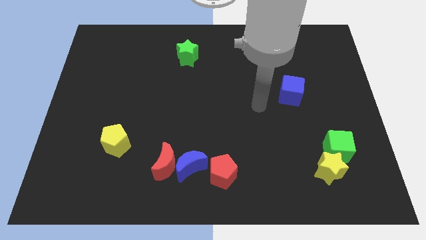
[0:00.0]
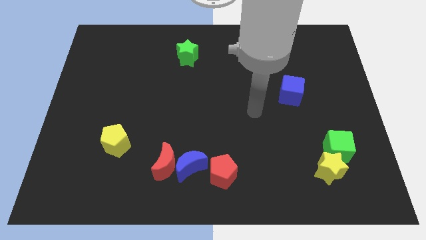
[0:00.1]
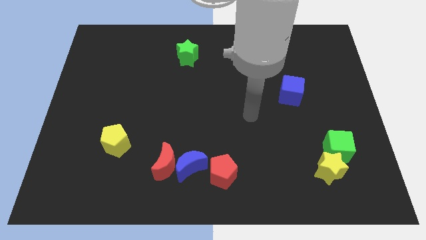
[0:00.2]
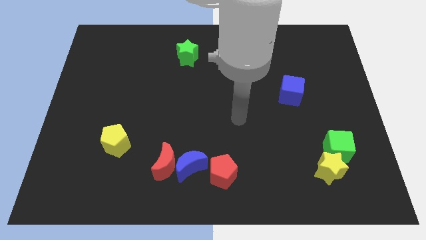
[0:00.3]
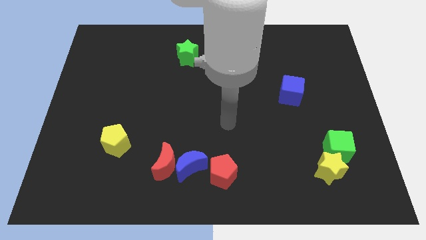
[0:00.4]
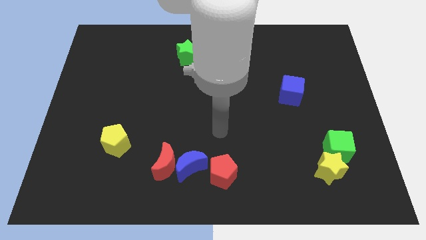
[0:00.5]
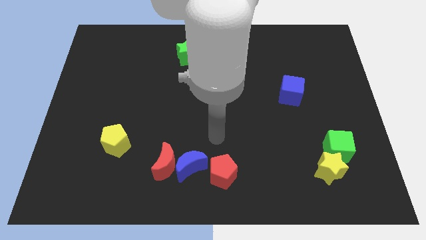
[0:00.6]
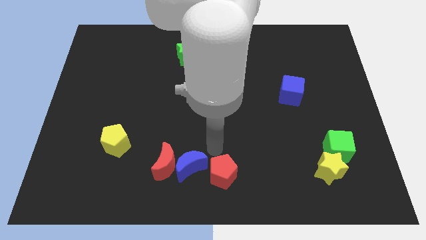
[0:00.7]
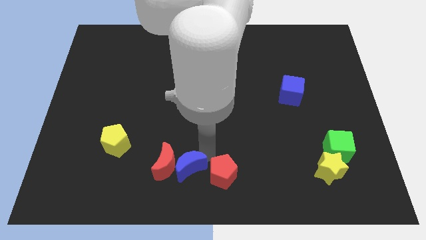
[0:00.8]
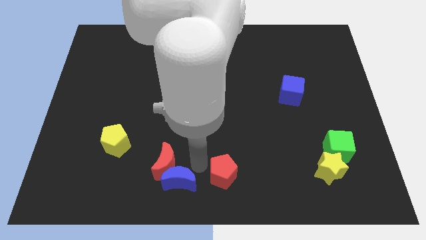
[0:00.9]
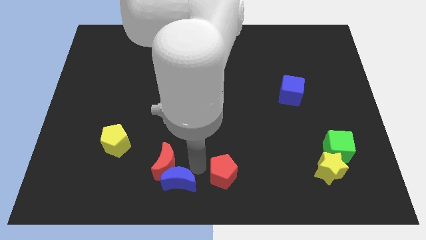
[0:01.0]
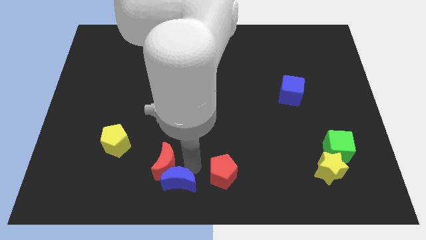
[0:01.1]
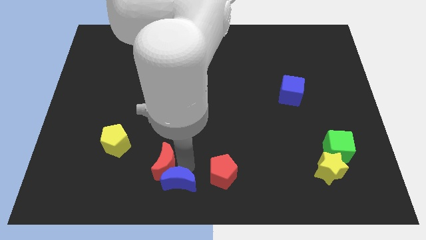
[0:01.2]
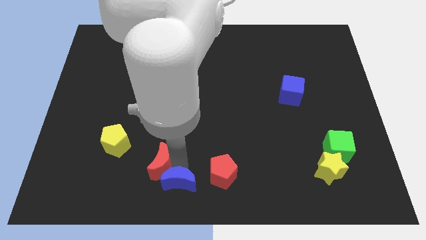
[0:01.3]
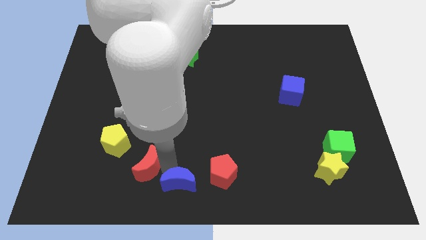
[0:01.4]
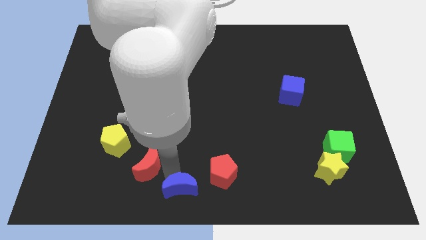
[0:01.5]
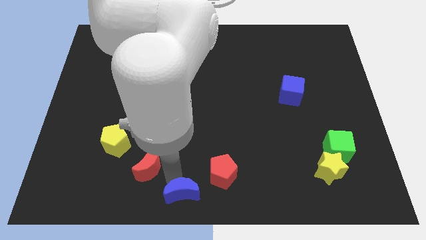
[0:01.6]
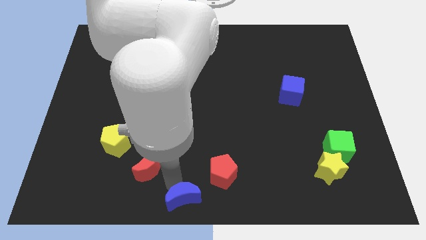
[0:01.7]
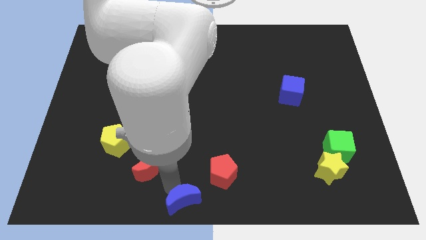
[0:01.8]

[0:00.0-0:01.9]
separate the red moon from the blue moon

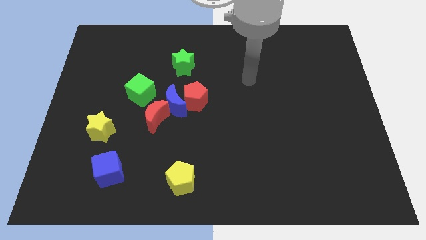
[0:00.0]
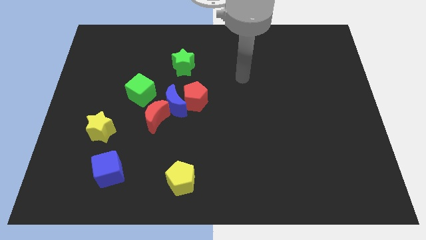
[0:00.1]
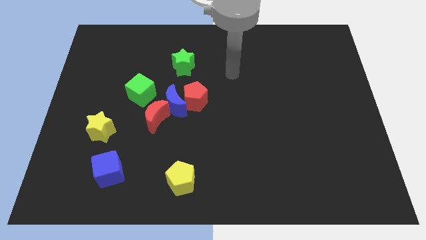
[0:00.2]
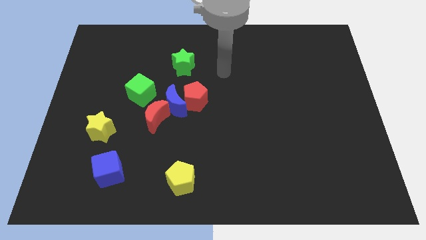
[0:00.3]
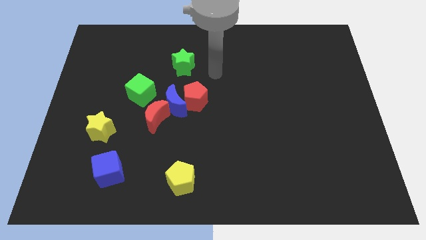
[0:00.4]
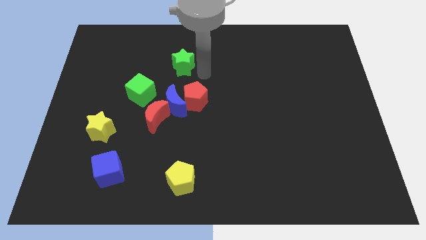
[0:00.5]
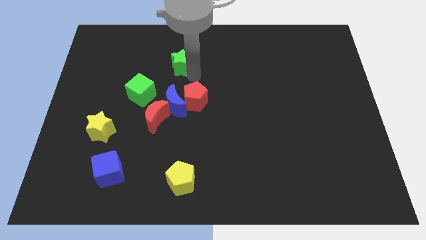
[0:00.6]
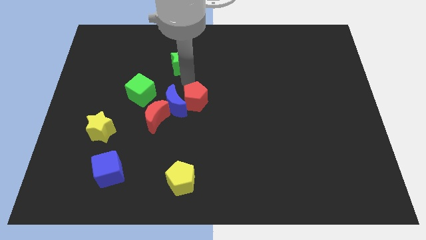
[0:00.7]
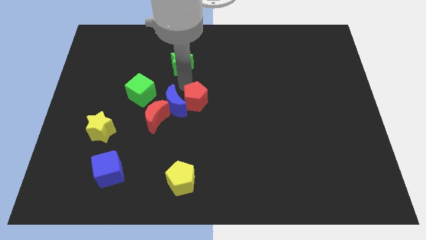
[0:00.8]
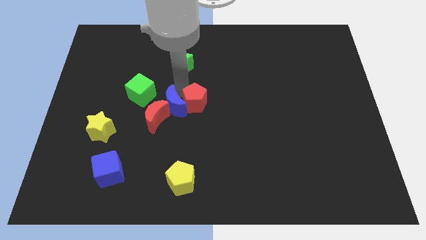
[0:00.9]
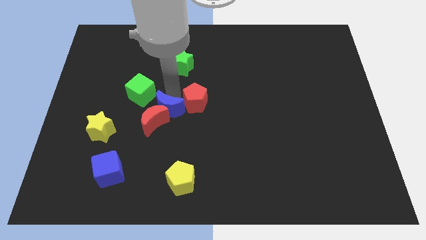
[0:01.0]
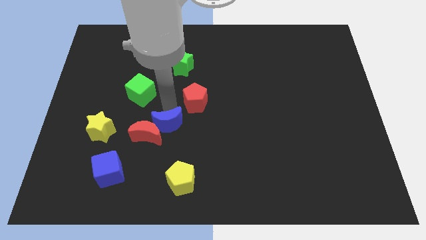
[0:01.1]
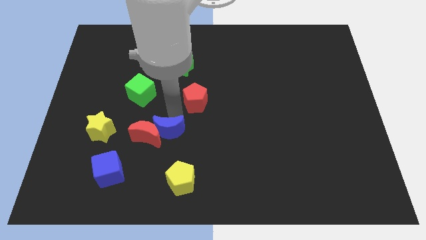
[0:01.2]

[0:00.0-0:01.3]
pull the red pentagon apart from the blue moon

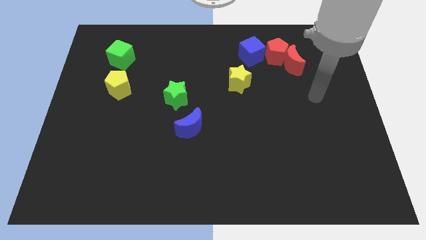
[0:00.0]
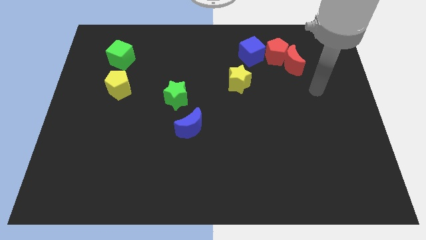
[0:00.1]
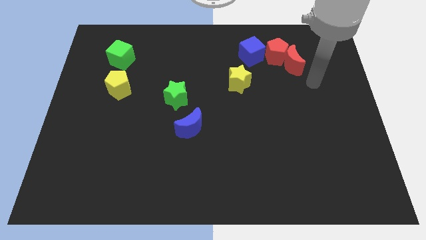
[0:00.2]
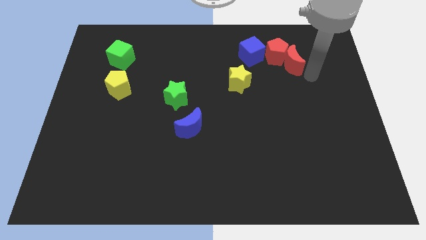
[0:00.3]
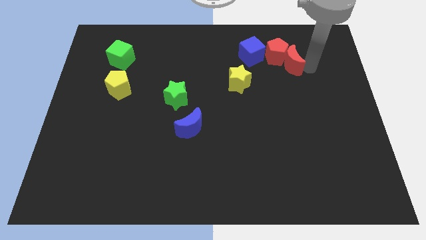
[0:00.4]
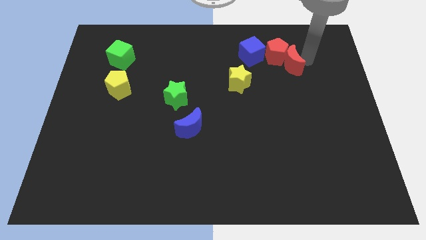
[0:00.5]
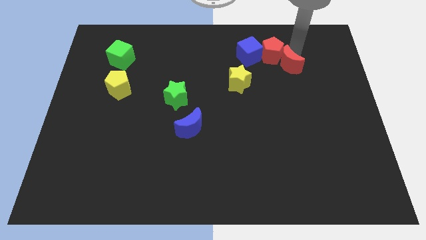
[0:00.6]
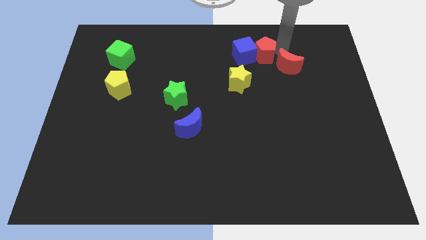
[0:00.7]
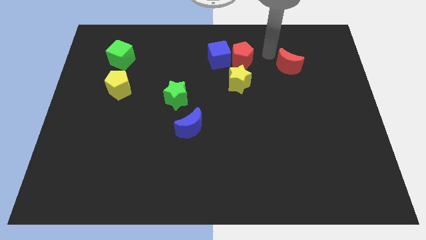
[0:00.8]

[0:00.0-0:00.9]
separate the red moon from the red pentagon

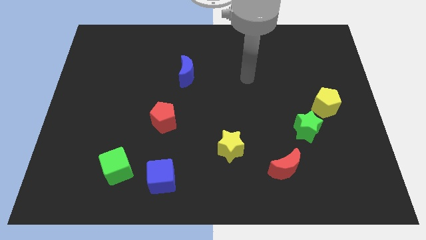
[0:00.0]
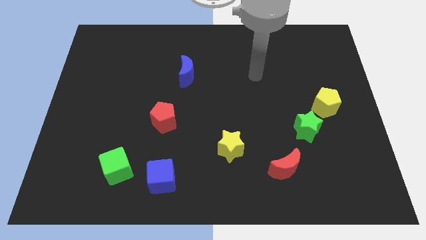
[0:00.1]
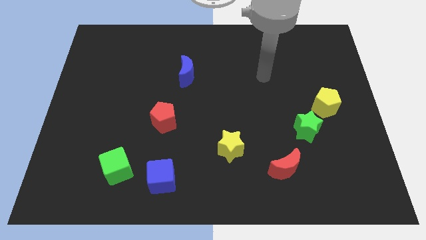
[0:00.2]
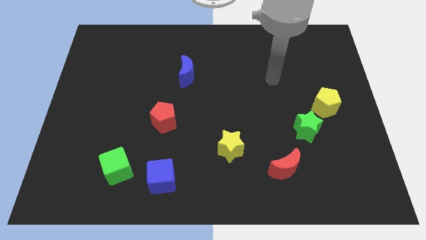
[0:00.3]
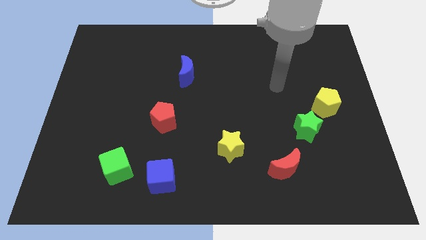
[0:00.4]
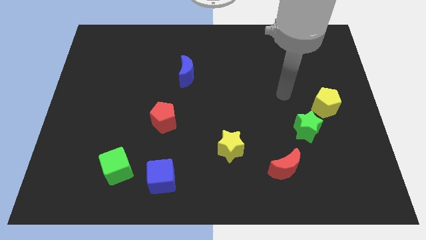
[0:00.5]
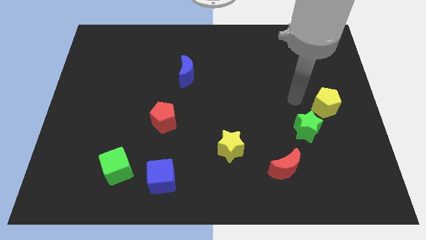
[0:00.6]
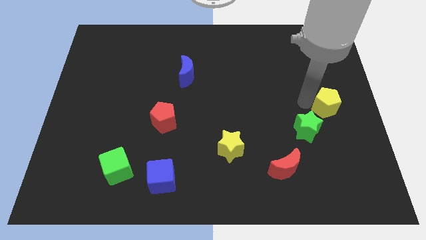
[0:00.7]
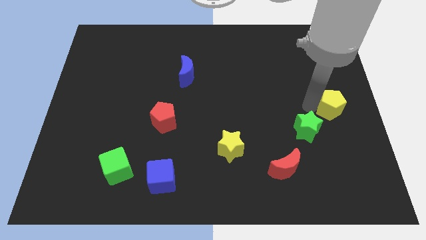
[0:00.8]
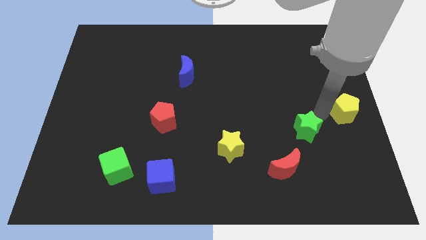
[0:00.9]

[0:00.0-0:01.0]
separate the green star from the yellow pentagon

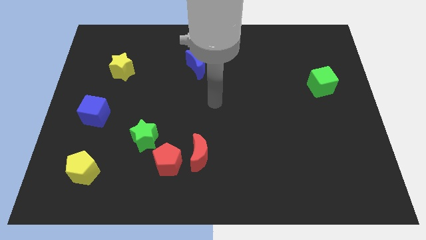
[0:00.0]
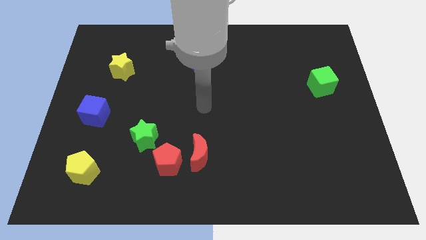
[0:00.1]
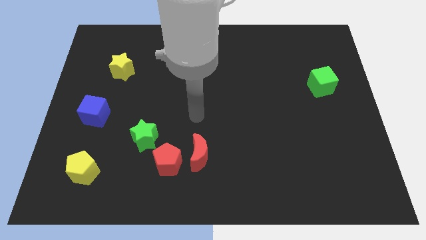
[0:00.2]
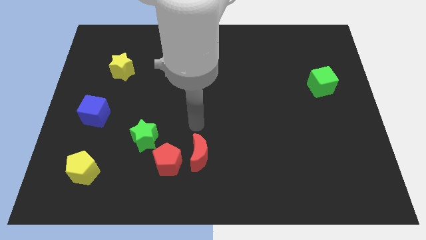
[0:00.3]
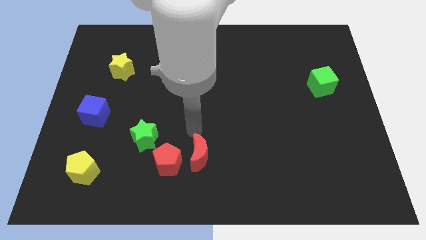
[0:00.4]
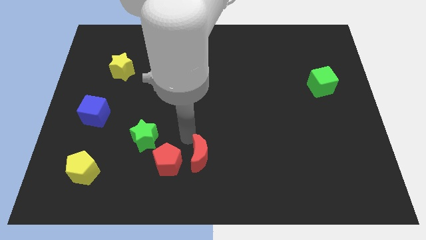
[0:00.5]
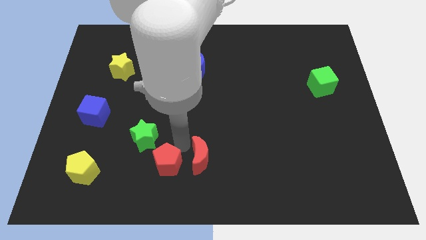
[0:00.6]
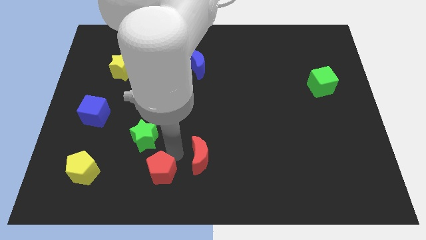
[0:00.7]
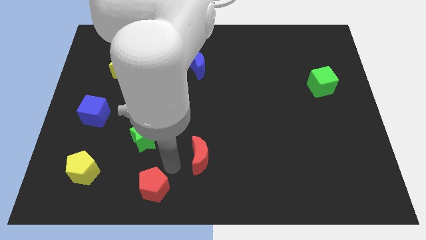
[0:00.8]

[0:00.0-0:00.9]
pull the red moon apart from the red pentagon

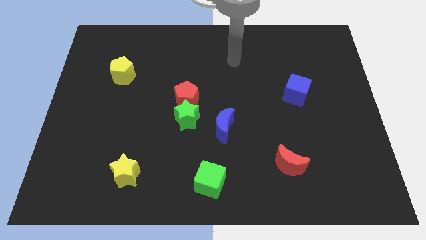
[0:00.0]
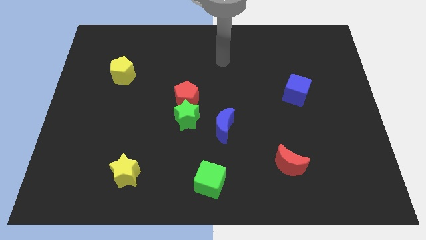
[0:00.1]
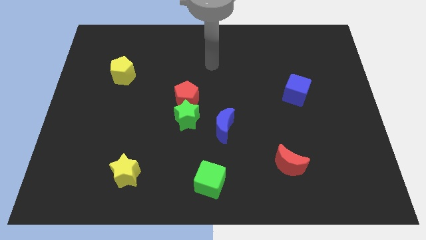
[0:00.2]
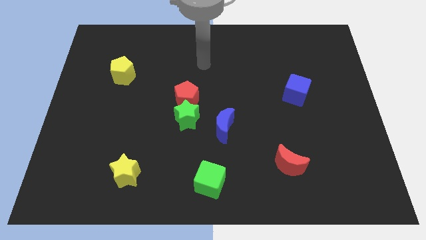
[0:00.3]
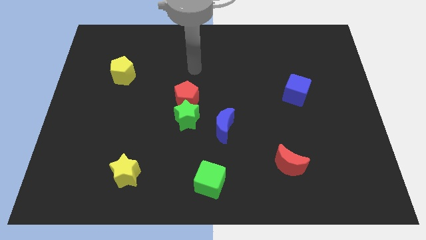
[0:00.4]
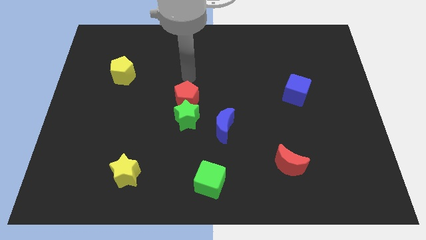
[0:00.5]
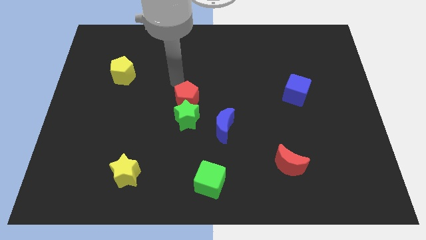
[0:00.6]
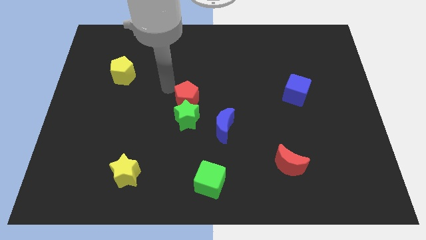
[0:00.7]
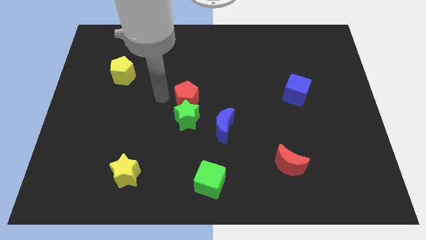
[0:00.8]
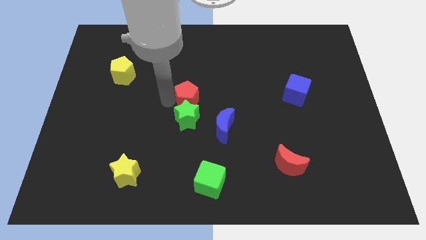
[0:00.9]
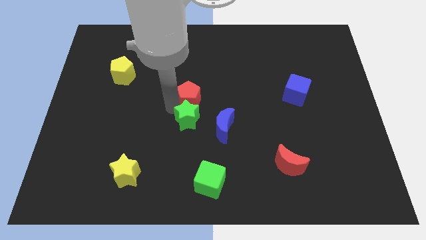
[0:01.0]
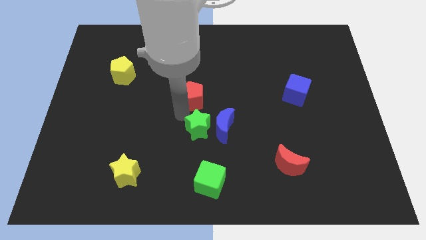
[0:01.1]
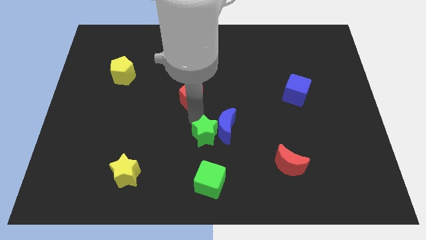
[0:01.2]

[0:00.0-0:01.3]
pull the red pentagon apart from the green star

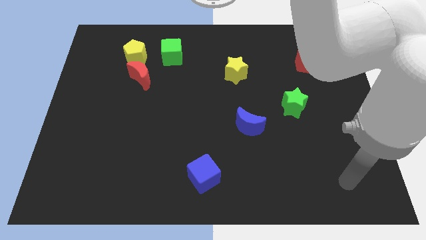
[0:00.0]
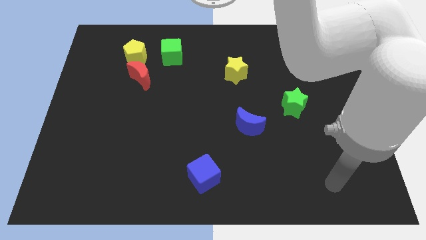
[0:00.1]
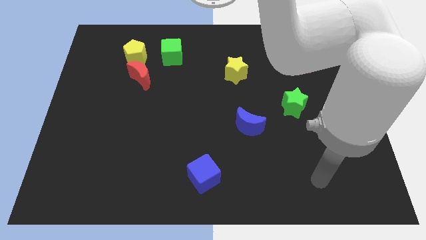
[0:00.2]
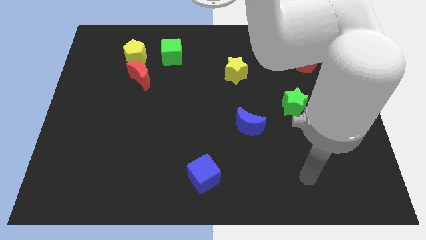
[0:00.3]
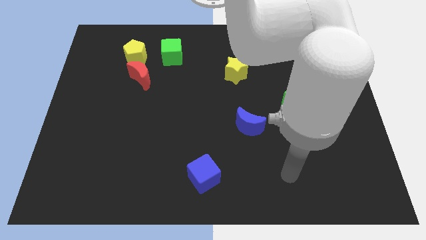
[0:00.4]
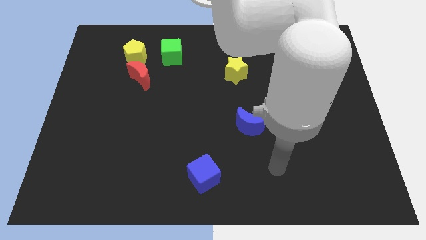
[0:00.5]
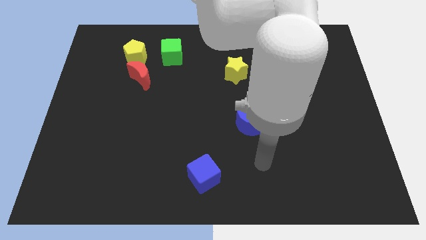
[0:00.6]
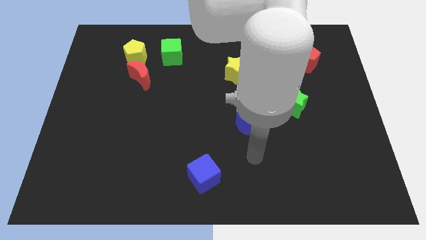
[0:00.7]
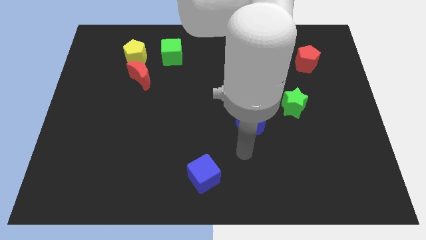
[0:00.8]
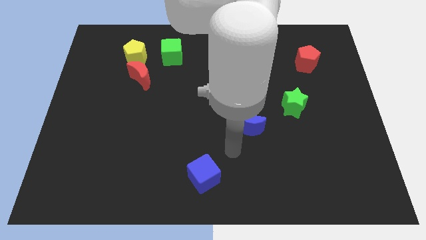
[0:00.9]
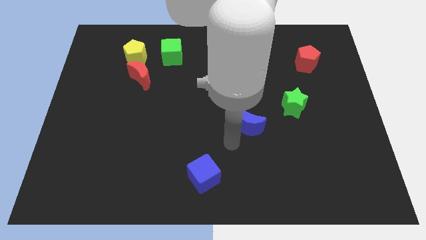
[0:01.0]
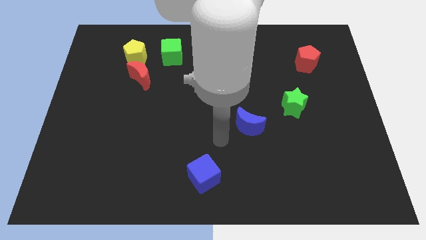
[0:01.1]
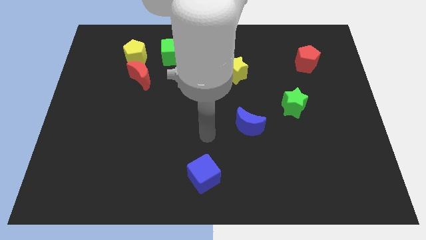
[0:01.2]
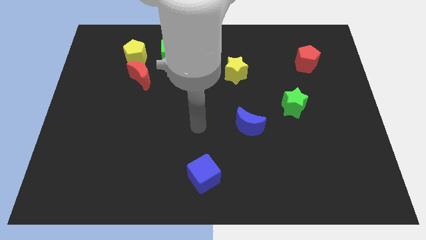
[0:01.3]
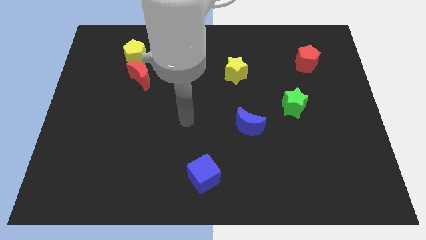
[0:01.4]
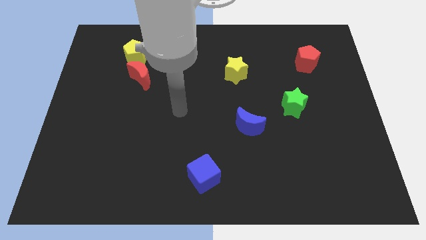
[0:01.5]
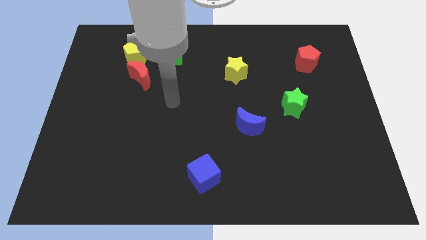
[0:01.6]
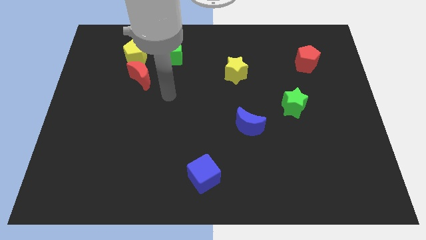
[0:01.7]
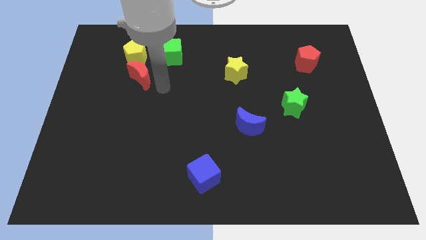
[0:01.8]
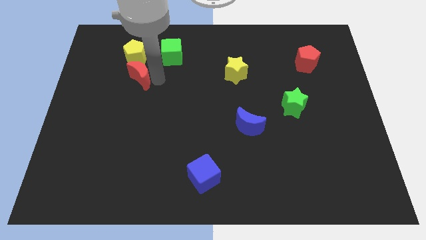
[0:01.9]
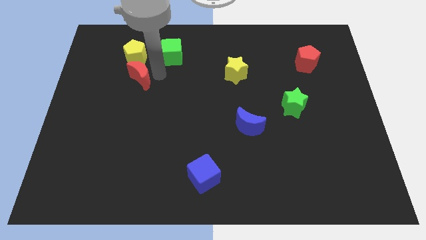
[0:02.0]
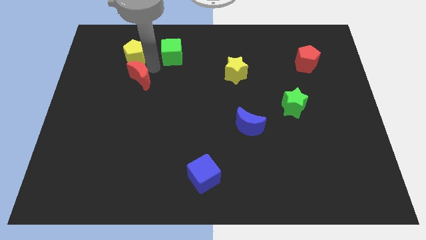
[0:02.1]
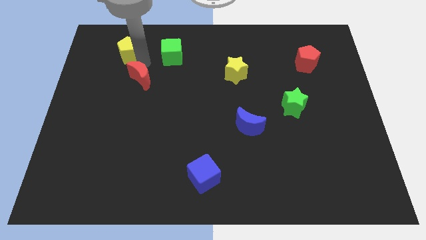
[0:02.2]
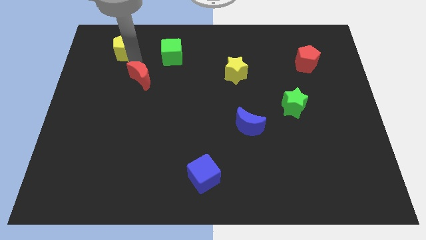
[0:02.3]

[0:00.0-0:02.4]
move the red moon away from the yellow pentagon
